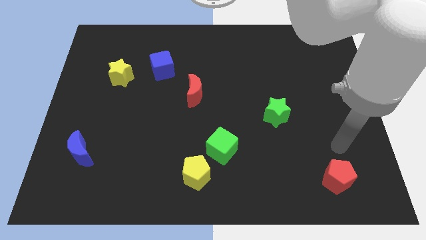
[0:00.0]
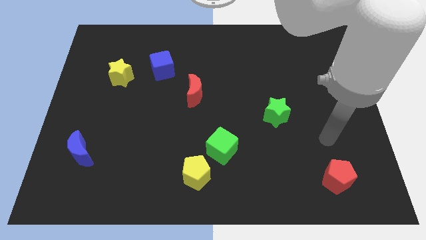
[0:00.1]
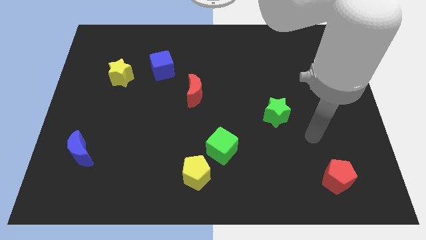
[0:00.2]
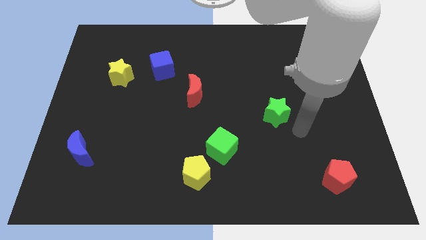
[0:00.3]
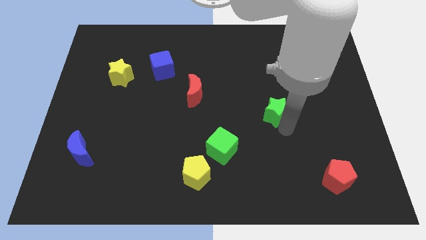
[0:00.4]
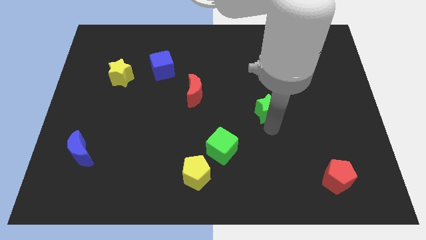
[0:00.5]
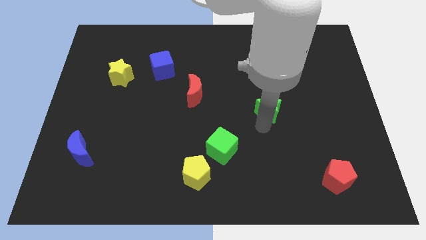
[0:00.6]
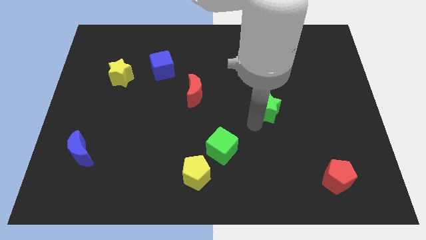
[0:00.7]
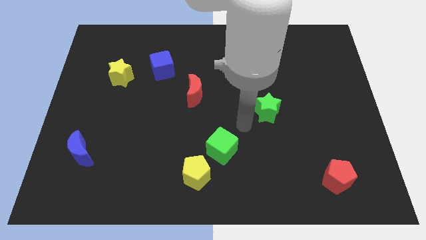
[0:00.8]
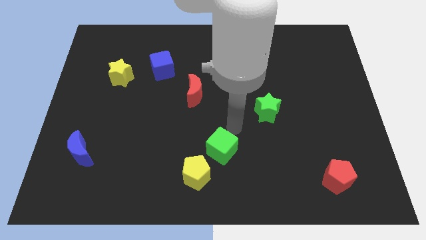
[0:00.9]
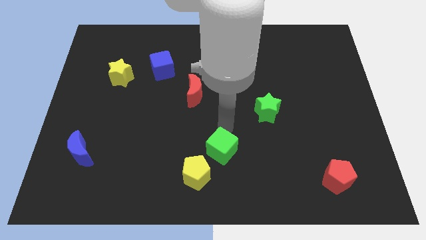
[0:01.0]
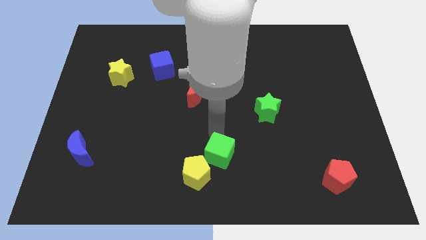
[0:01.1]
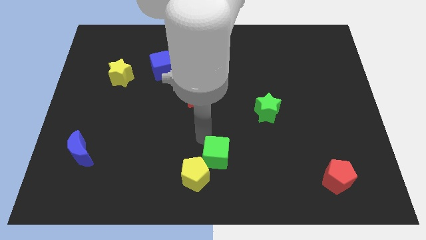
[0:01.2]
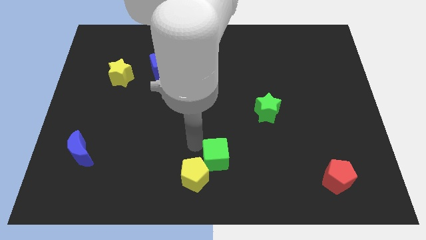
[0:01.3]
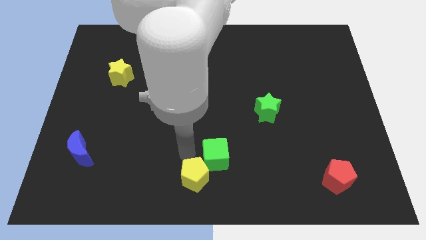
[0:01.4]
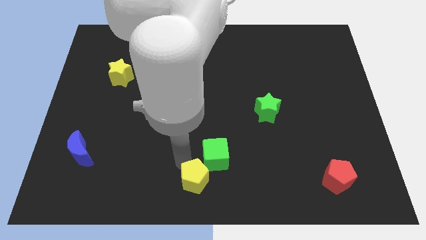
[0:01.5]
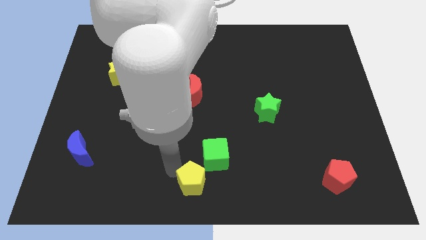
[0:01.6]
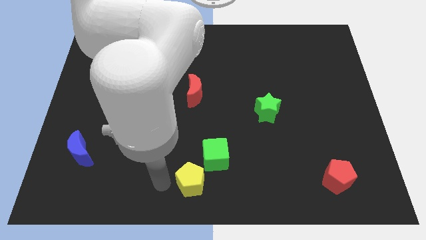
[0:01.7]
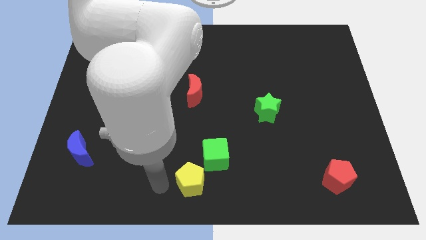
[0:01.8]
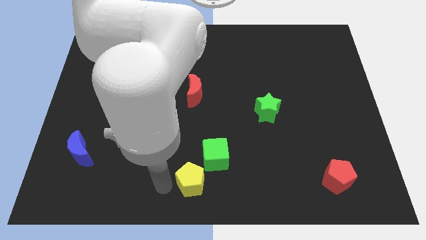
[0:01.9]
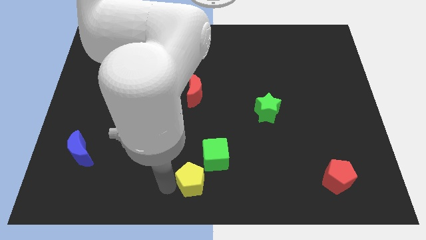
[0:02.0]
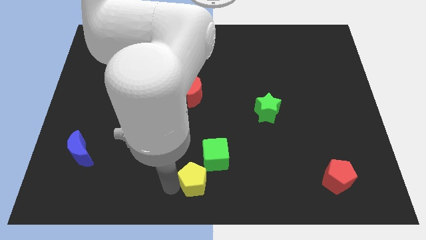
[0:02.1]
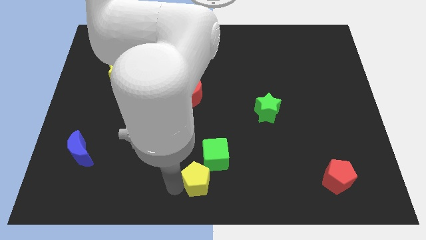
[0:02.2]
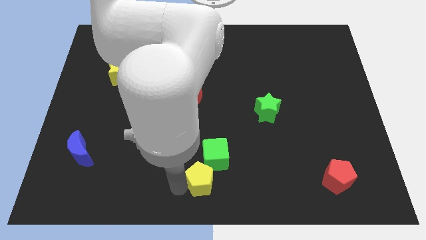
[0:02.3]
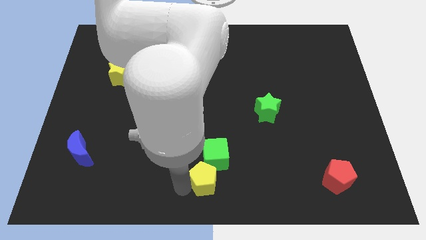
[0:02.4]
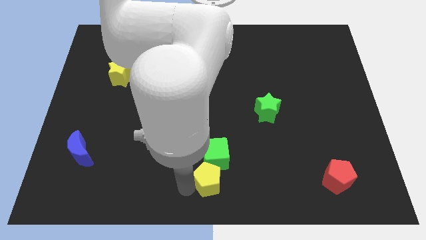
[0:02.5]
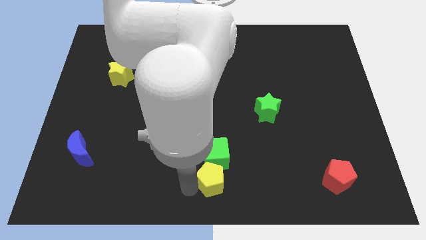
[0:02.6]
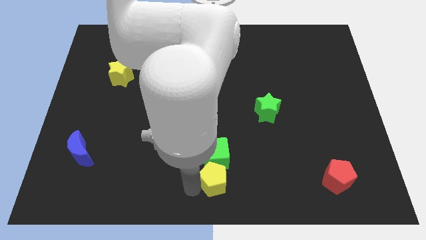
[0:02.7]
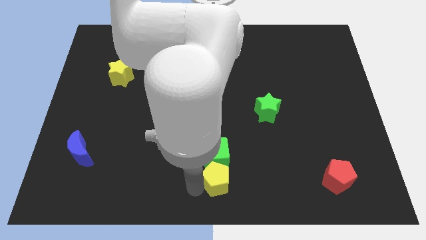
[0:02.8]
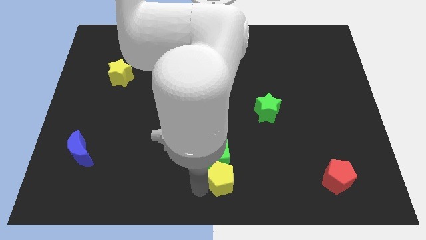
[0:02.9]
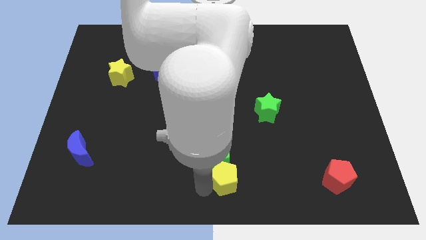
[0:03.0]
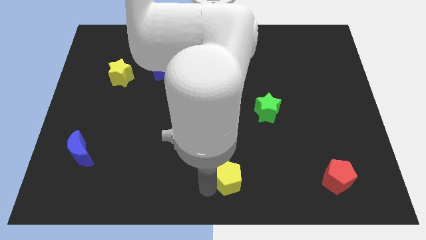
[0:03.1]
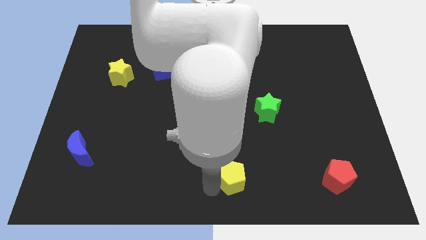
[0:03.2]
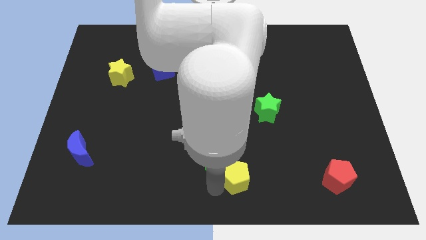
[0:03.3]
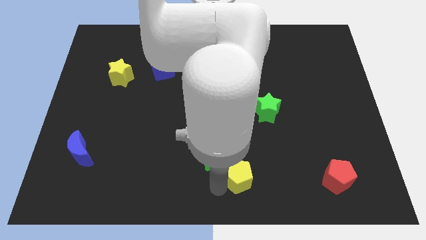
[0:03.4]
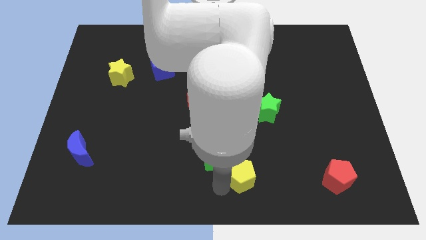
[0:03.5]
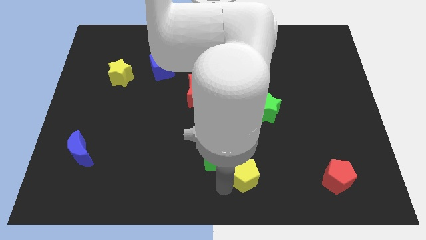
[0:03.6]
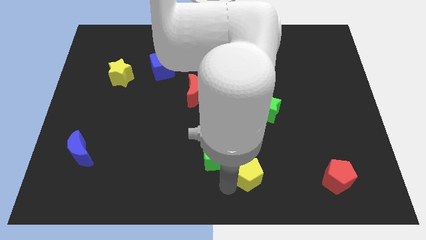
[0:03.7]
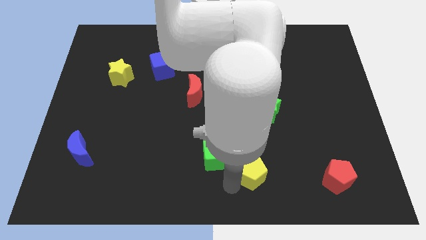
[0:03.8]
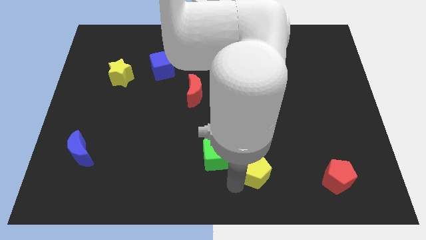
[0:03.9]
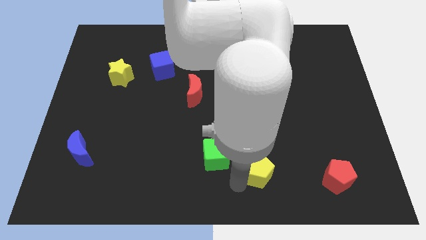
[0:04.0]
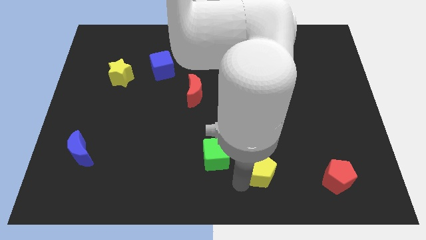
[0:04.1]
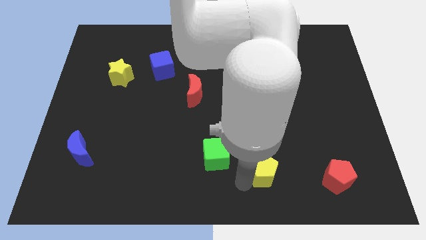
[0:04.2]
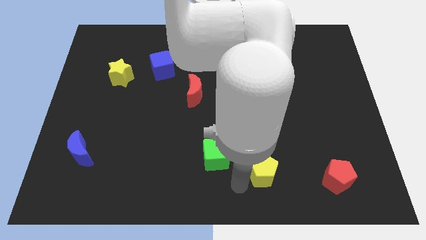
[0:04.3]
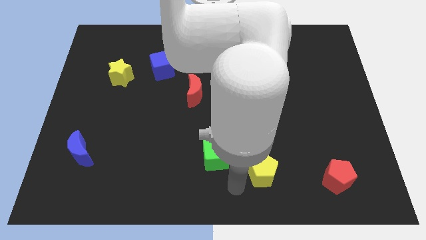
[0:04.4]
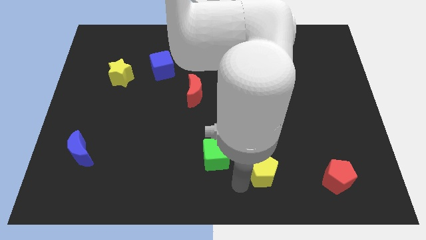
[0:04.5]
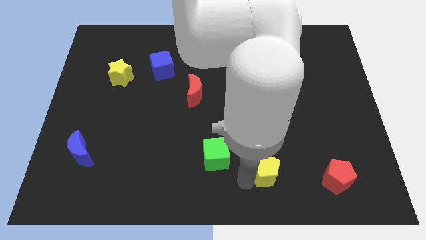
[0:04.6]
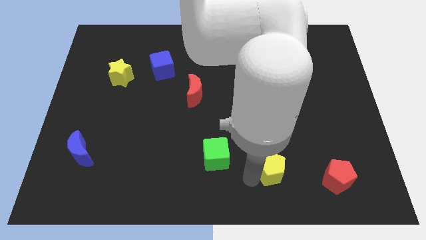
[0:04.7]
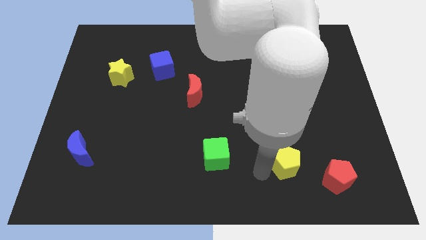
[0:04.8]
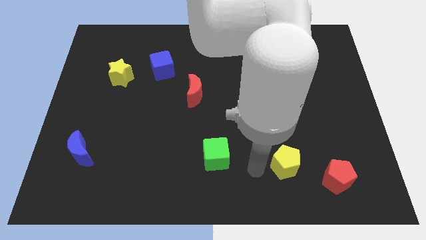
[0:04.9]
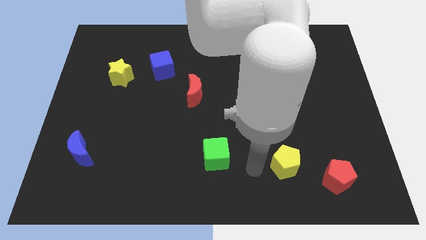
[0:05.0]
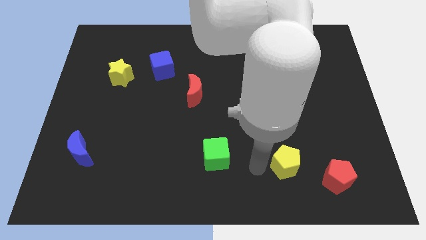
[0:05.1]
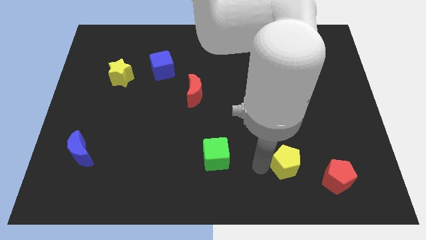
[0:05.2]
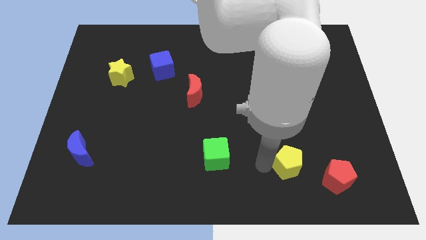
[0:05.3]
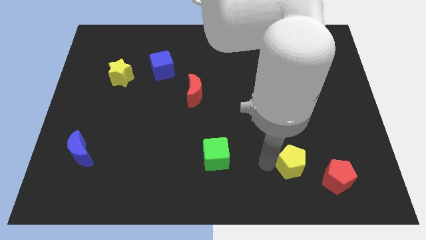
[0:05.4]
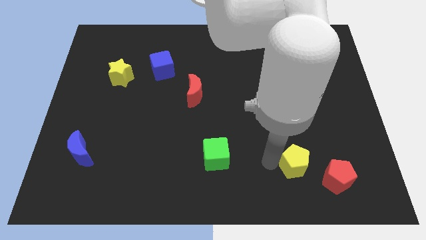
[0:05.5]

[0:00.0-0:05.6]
move the yellow pentagon right

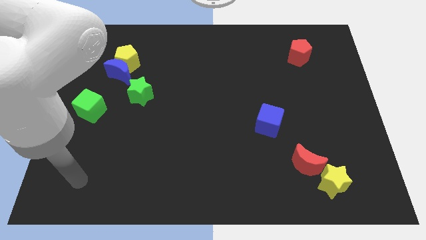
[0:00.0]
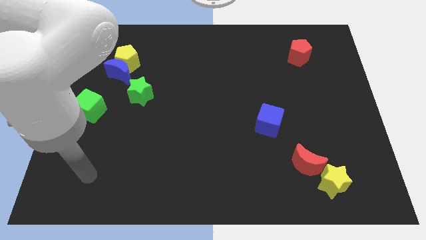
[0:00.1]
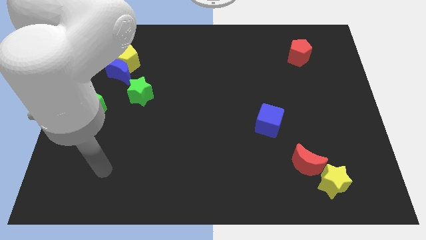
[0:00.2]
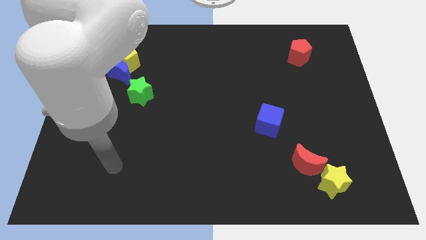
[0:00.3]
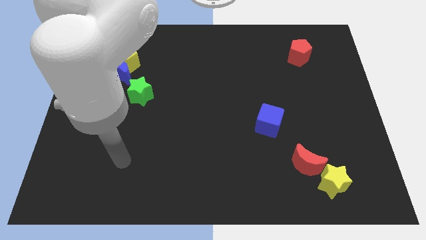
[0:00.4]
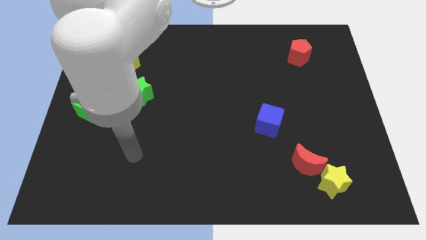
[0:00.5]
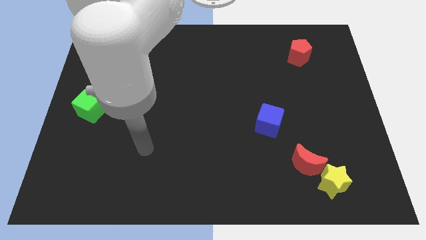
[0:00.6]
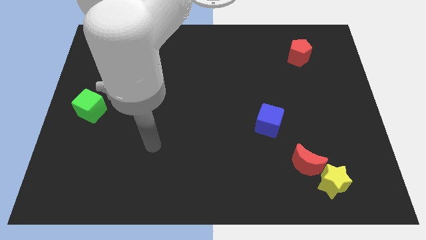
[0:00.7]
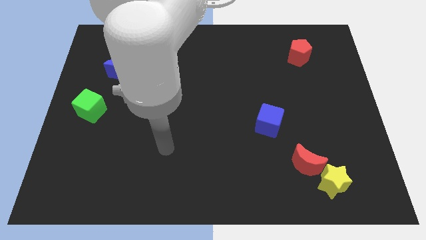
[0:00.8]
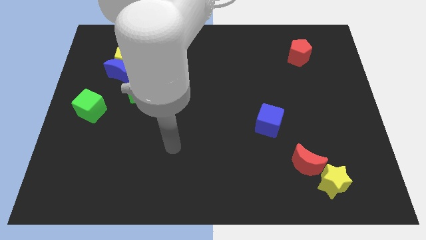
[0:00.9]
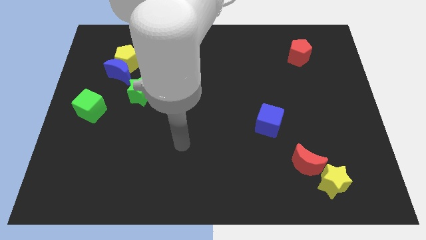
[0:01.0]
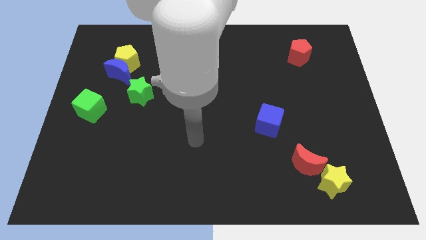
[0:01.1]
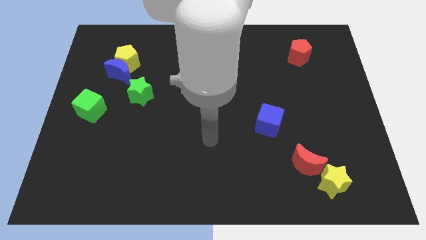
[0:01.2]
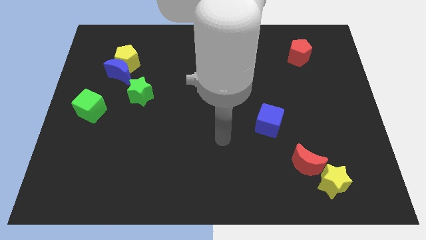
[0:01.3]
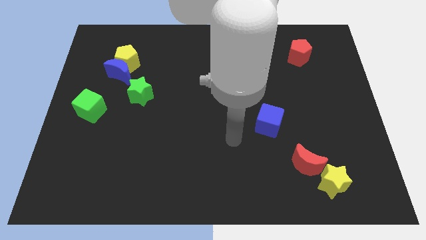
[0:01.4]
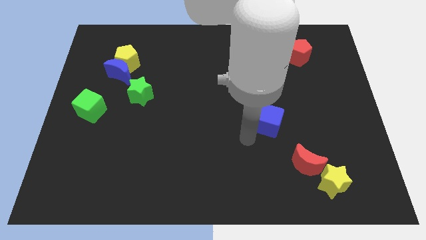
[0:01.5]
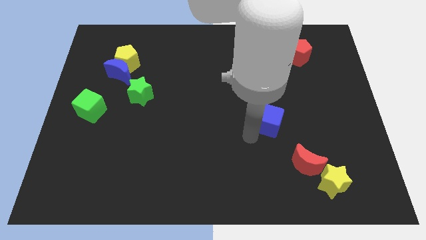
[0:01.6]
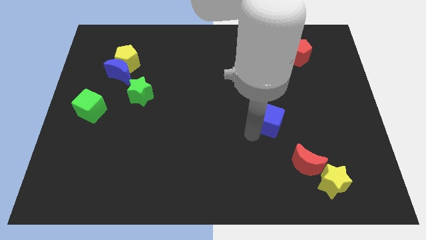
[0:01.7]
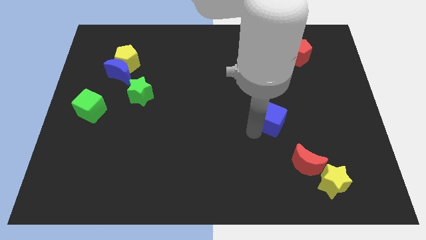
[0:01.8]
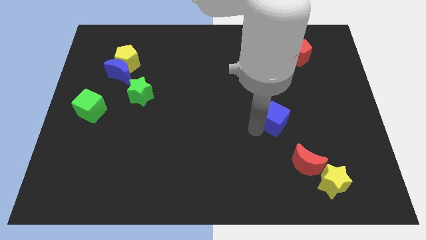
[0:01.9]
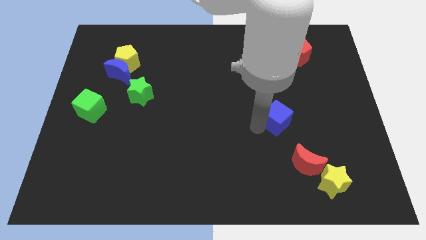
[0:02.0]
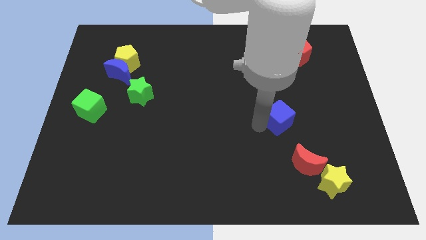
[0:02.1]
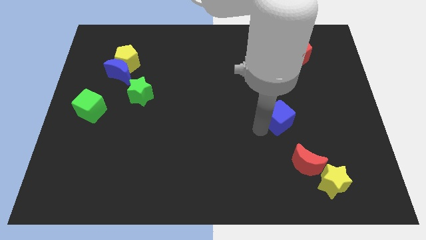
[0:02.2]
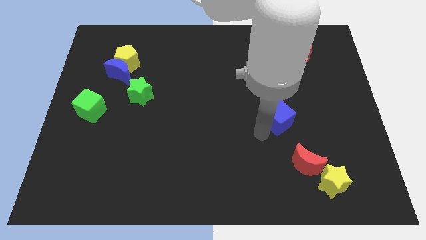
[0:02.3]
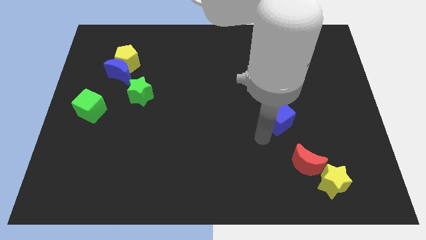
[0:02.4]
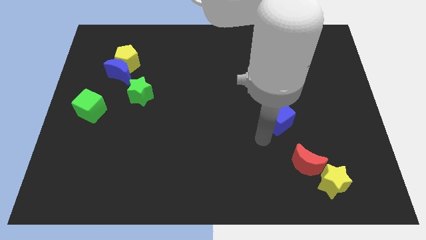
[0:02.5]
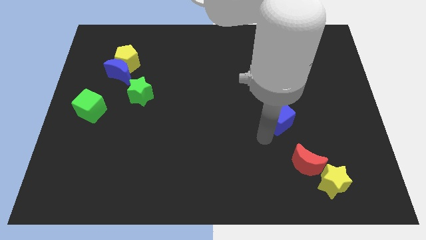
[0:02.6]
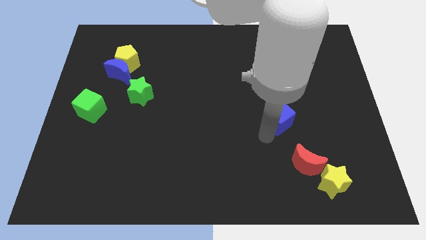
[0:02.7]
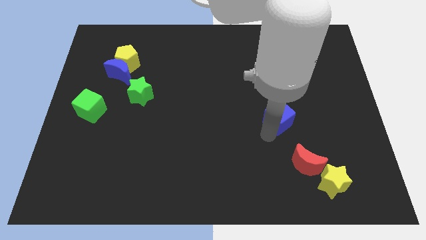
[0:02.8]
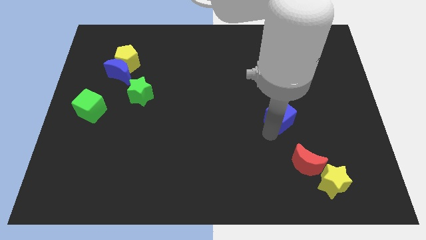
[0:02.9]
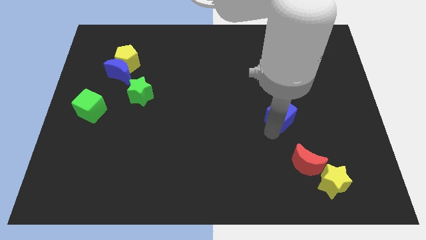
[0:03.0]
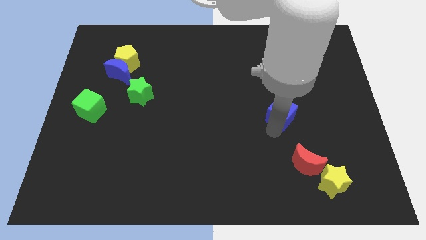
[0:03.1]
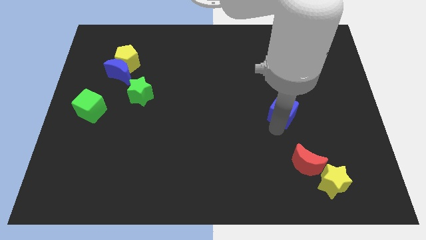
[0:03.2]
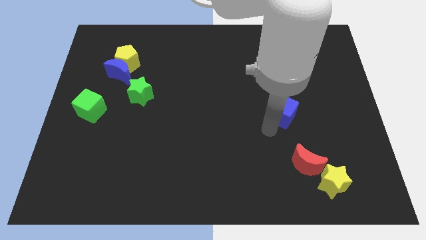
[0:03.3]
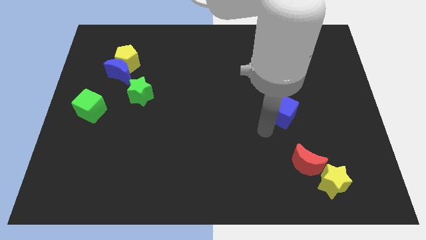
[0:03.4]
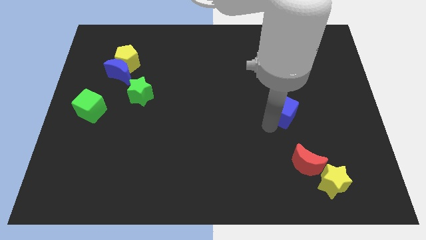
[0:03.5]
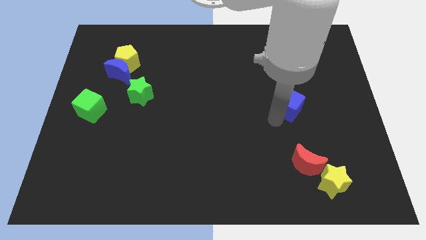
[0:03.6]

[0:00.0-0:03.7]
slide the blue cube up and to the right diagonally a little
